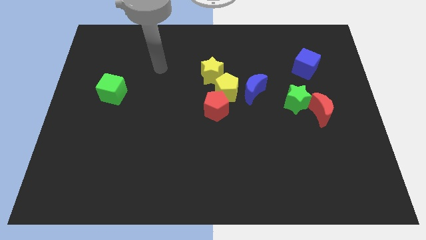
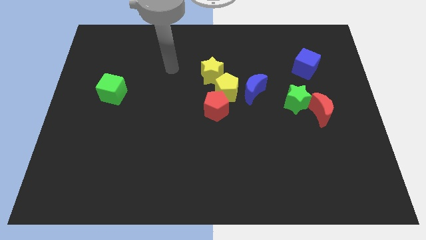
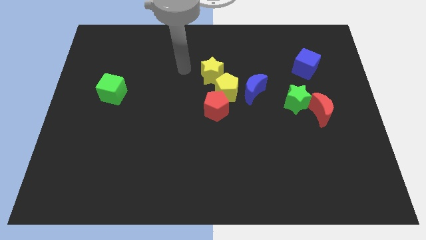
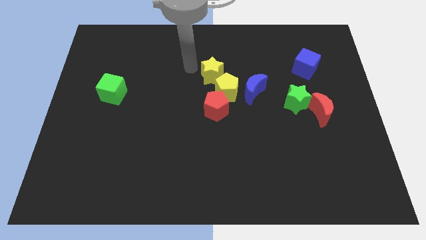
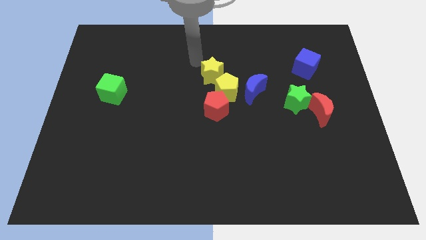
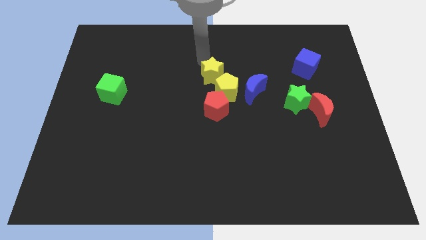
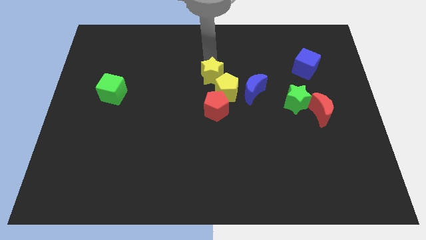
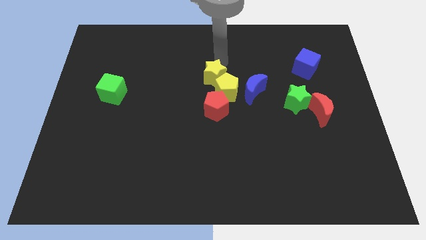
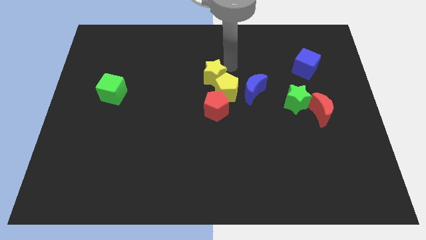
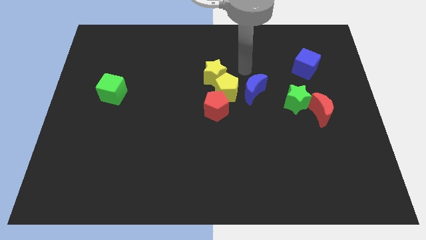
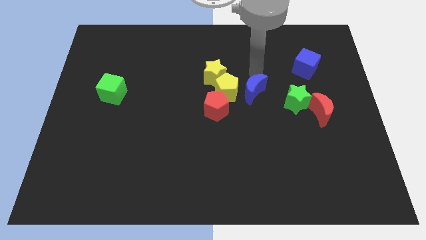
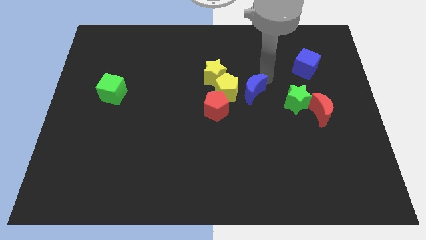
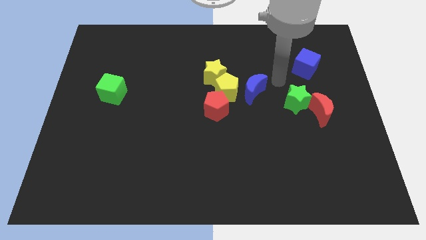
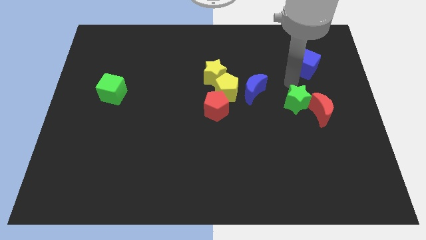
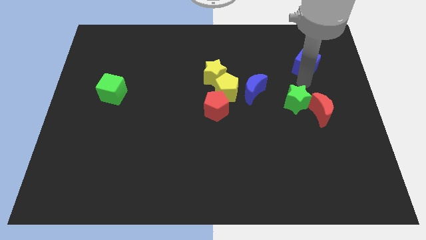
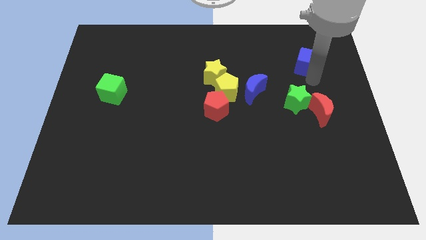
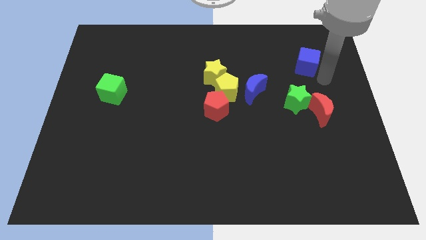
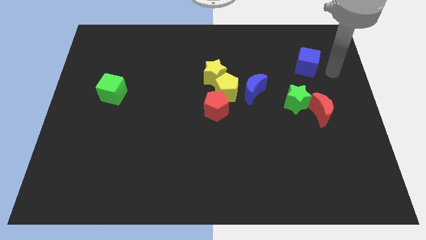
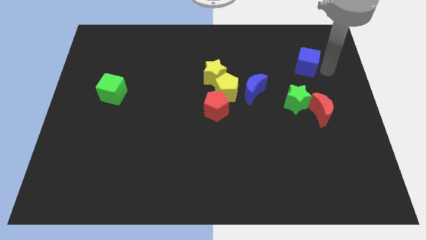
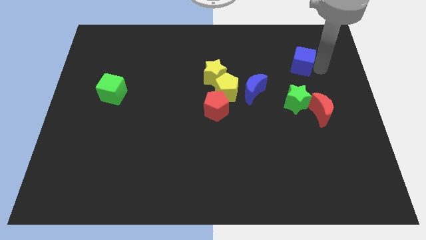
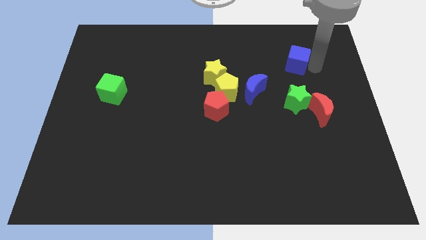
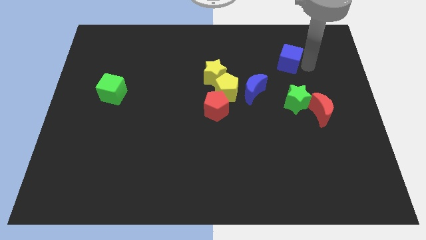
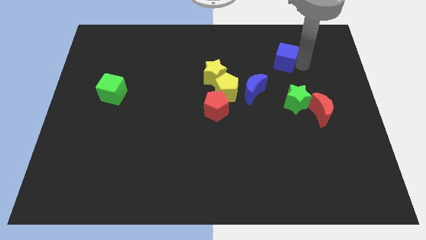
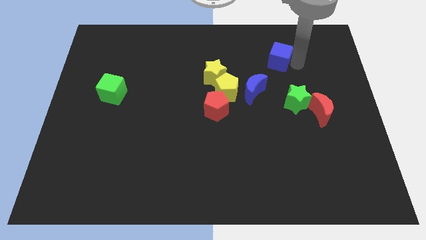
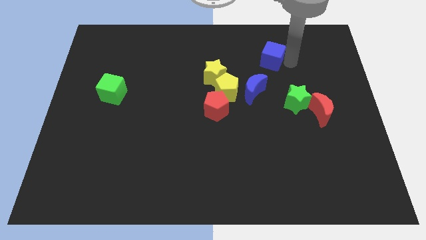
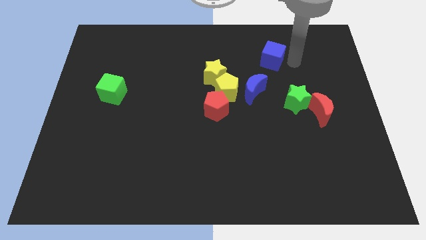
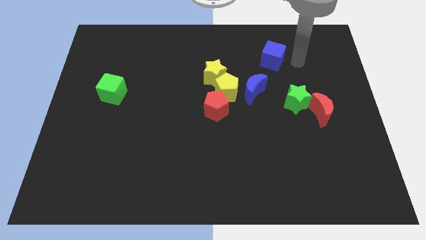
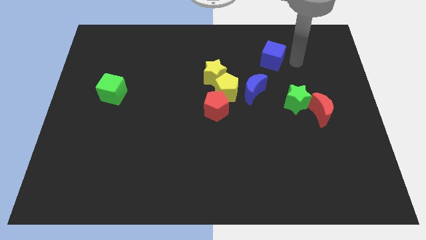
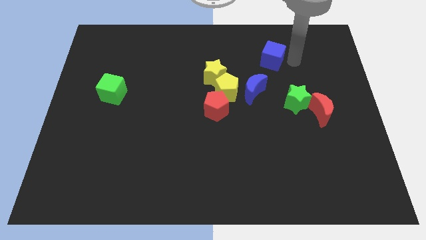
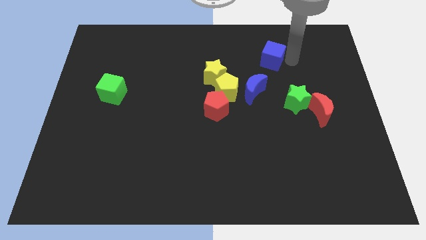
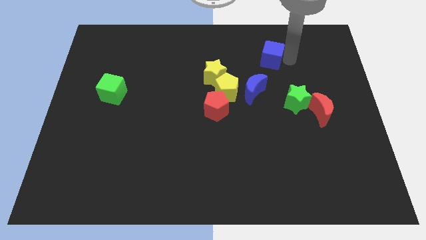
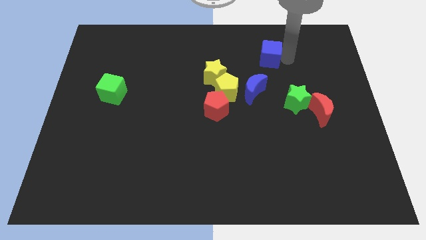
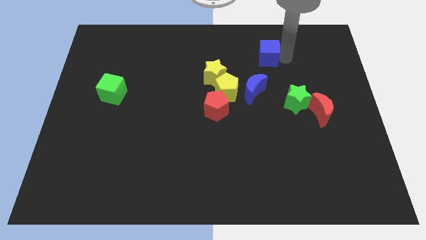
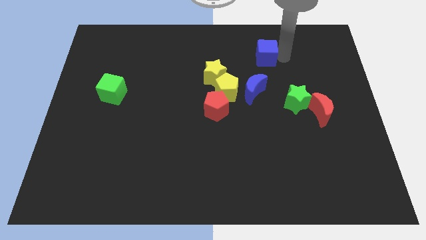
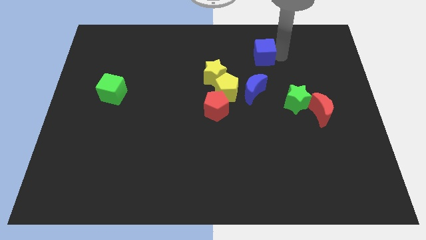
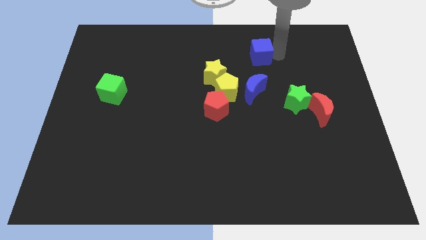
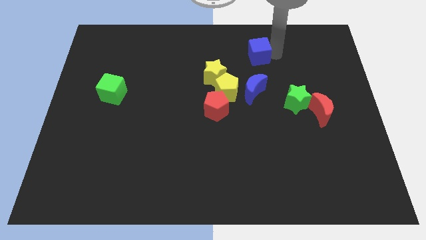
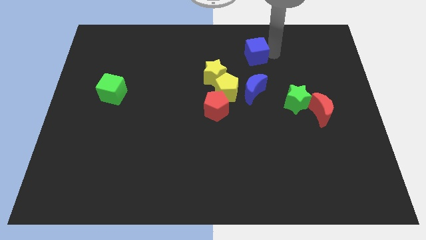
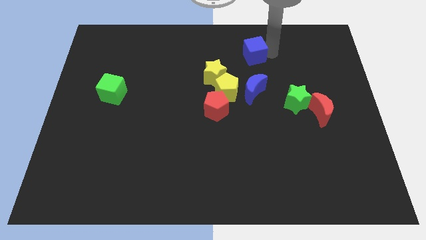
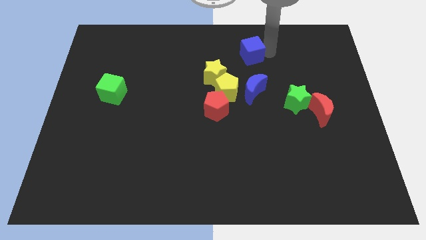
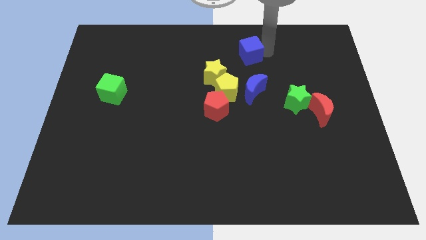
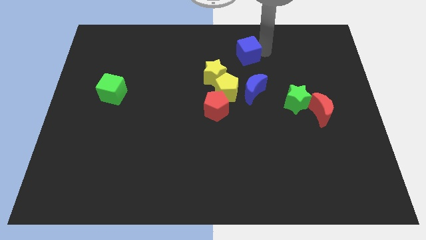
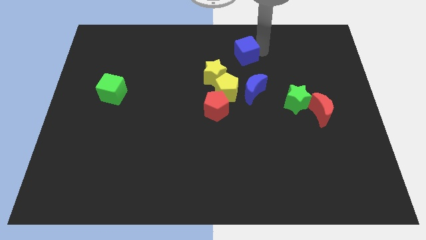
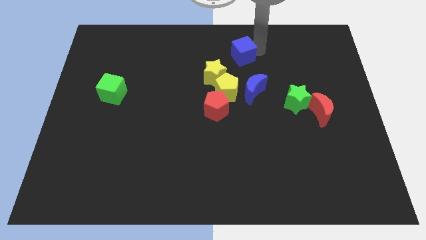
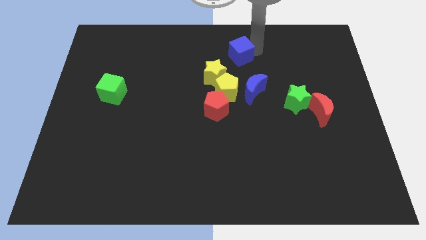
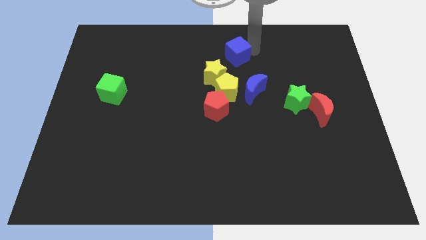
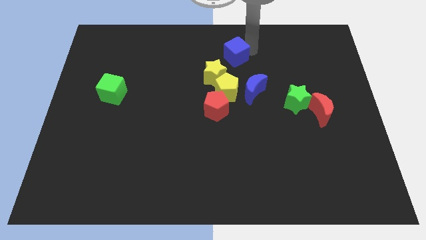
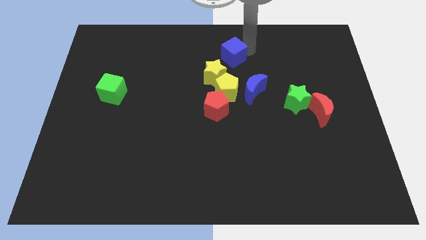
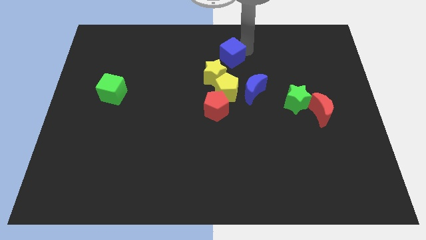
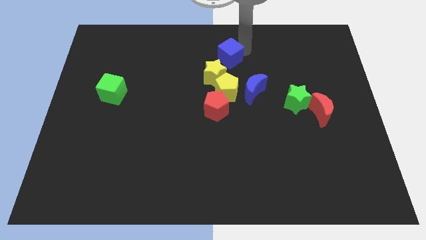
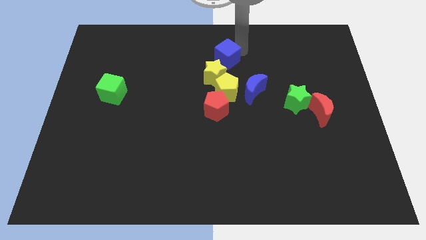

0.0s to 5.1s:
move the blue cube to the left

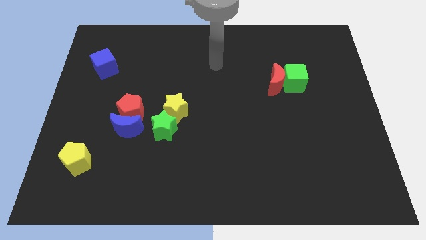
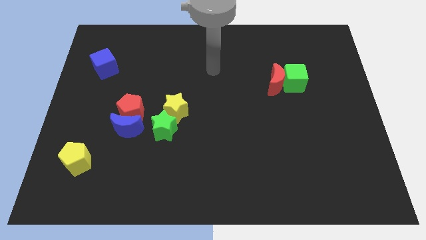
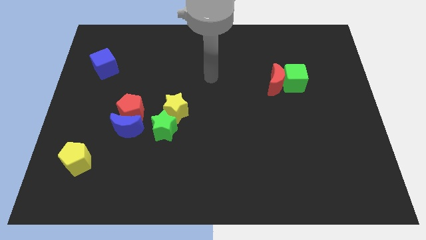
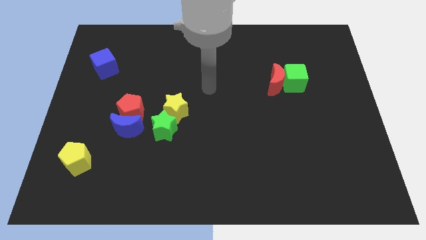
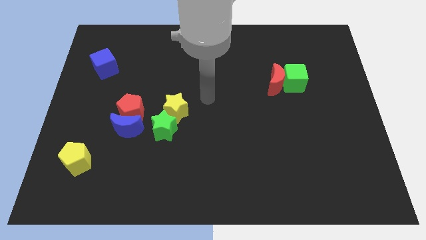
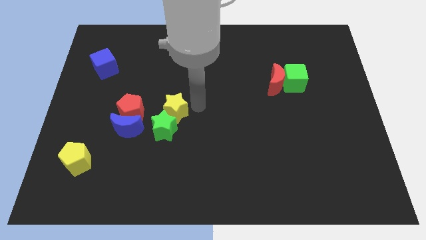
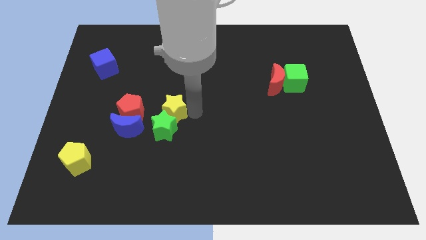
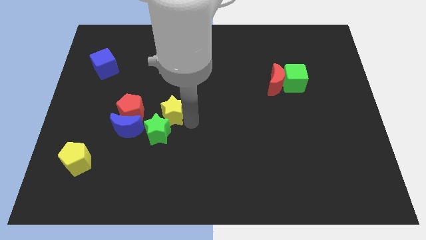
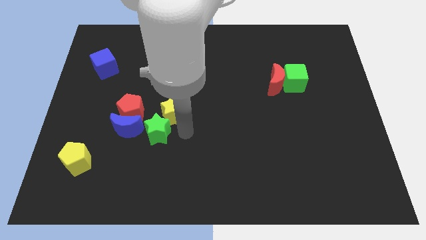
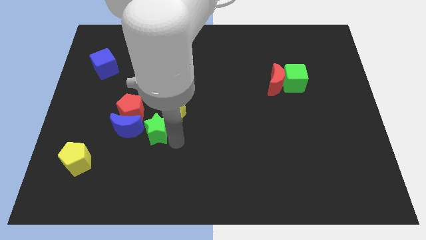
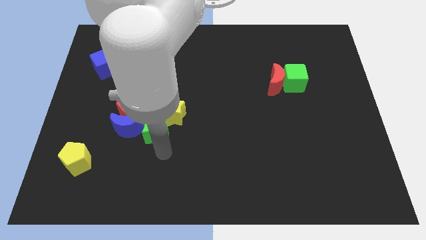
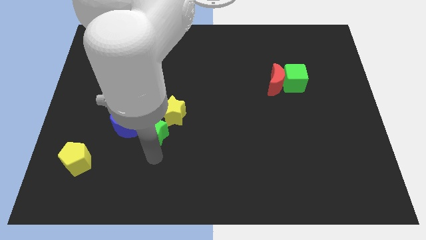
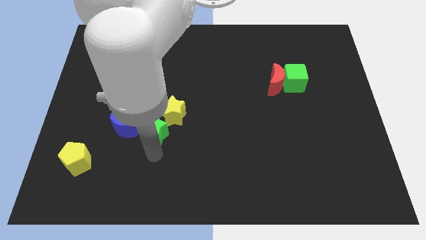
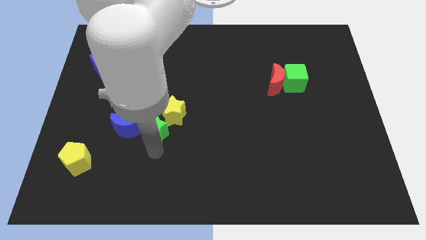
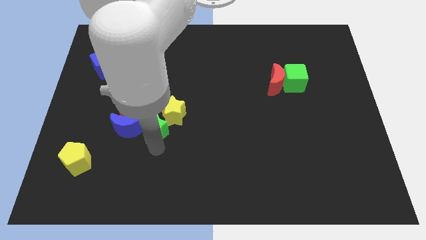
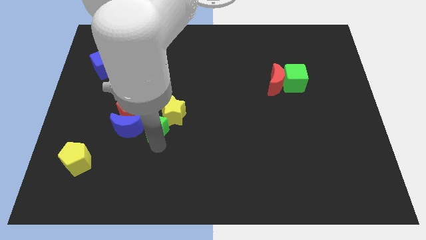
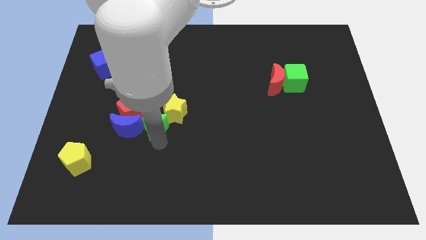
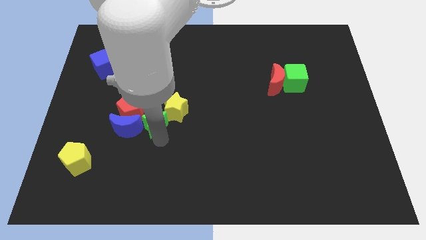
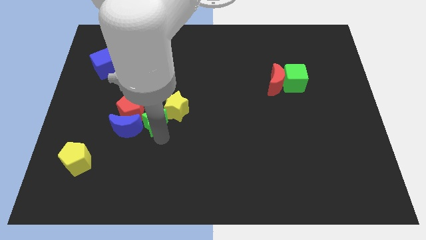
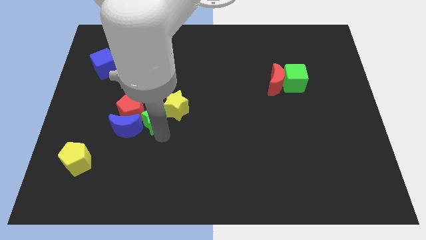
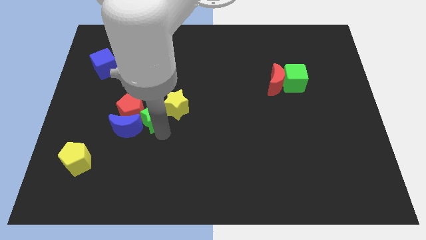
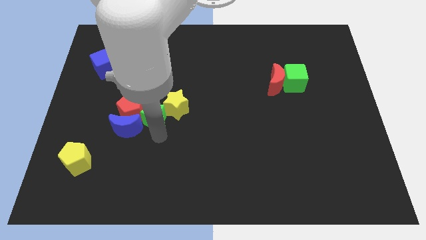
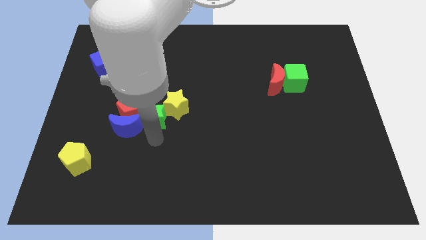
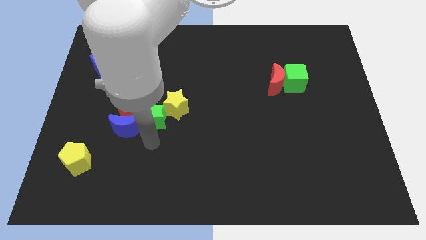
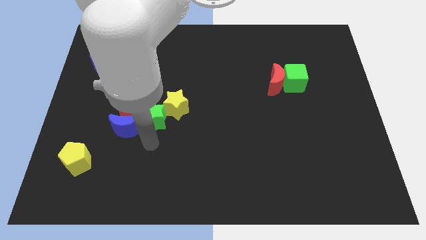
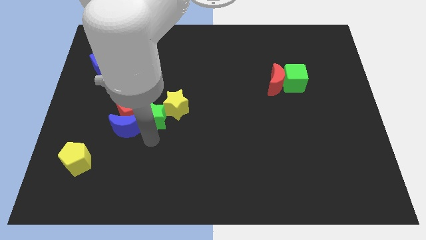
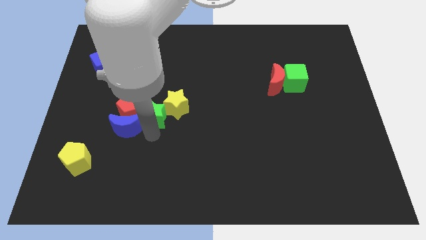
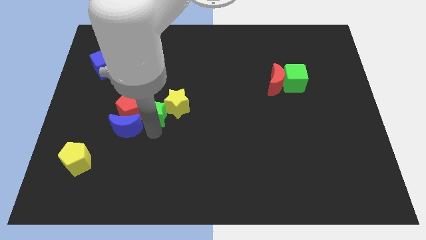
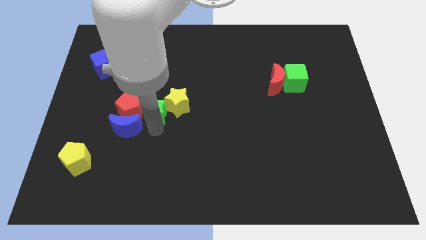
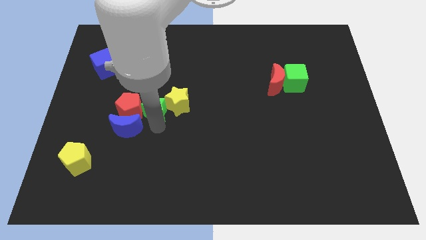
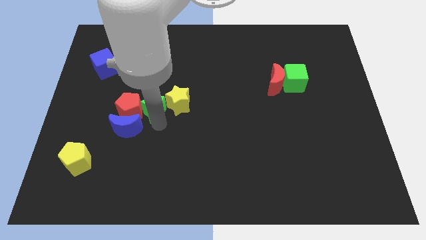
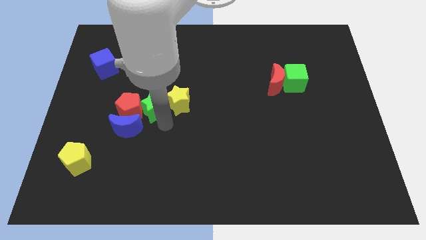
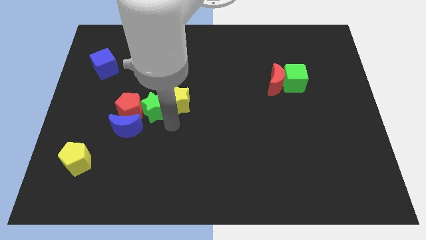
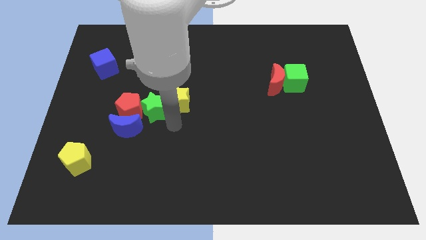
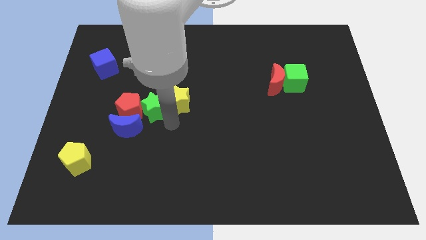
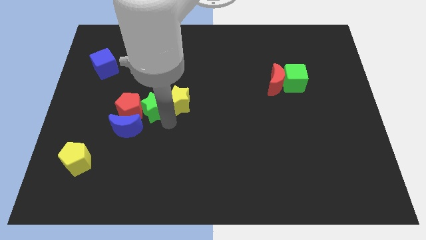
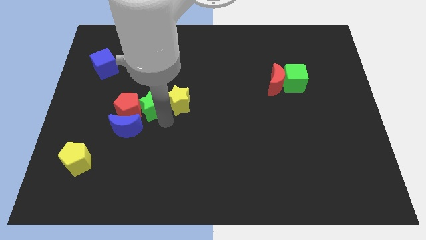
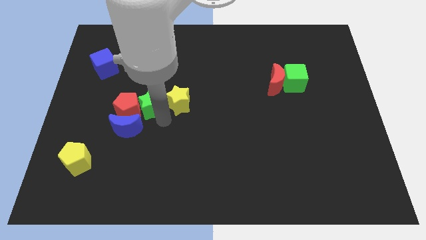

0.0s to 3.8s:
slide the green star a little bit upwards and to the left diagonally
